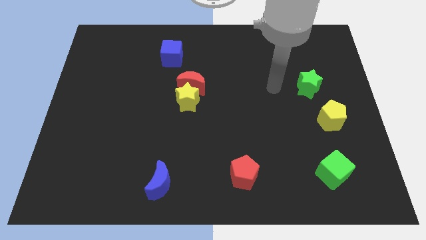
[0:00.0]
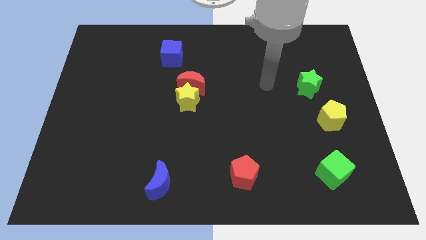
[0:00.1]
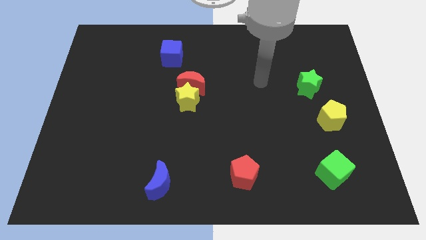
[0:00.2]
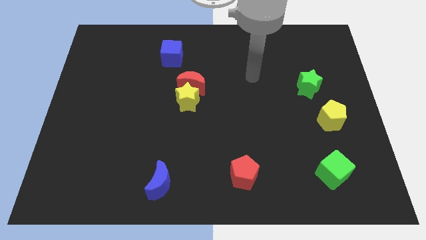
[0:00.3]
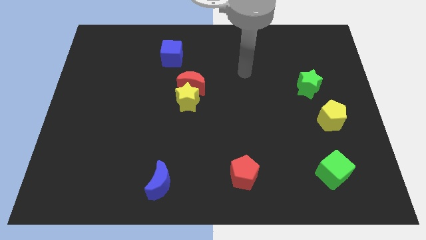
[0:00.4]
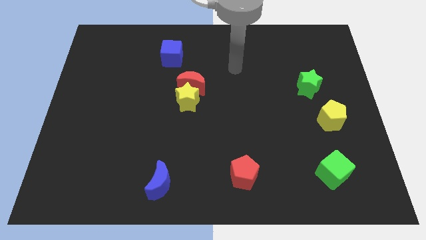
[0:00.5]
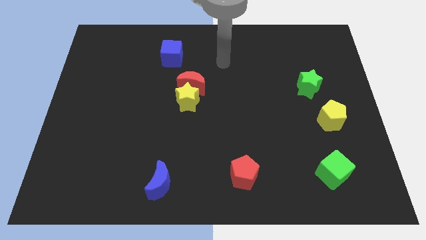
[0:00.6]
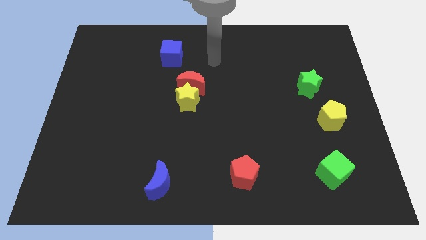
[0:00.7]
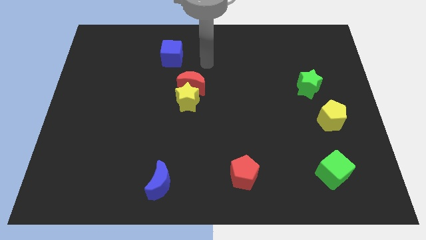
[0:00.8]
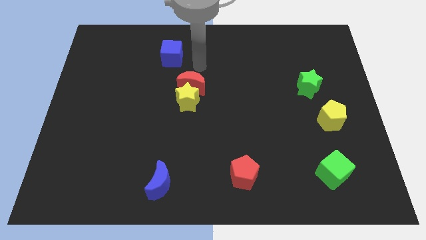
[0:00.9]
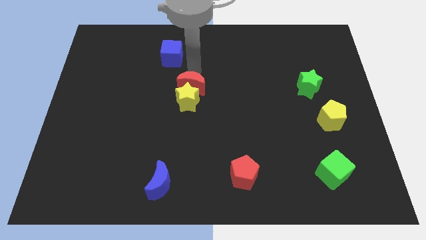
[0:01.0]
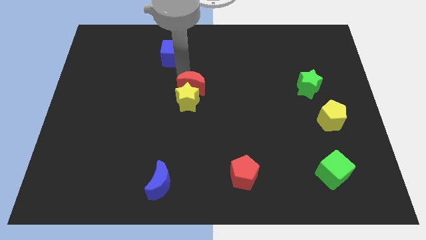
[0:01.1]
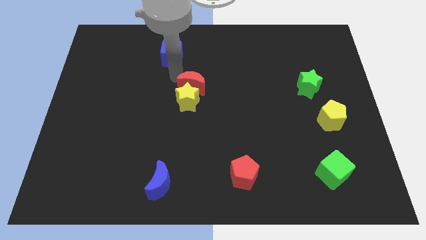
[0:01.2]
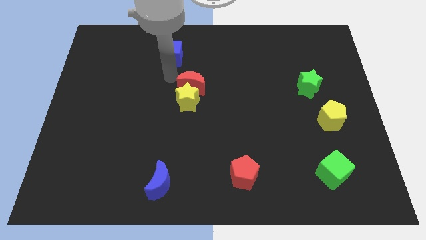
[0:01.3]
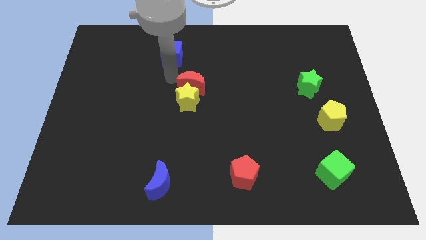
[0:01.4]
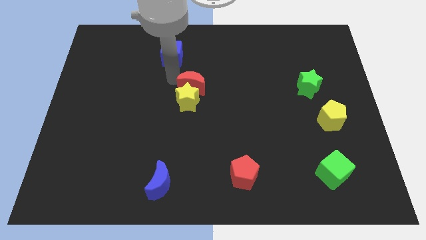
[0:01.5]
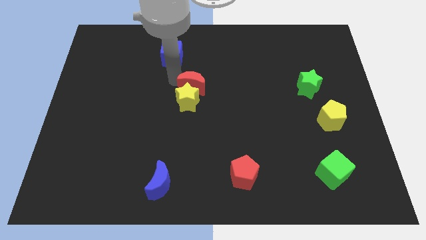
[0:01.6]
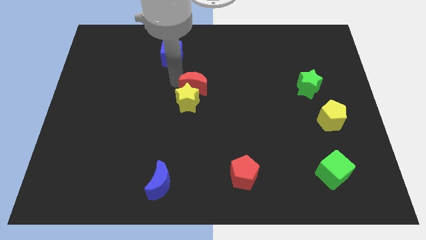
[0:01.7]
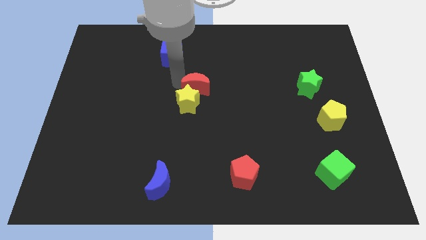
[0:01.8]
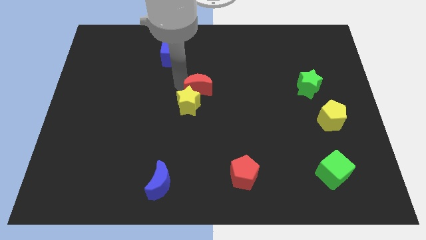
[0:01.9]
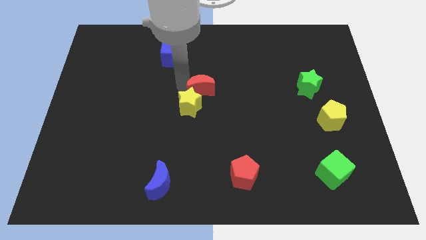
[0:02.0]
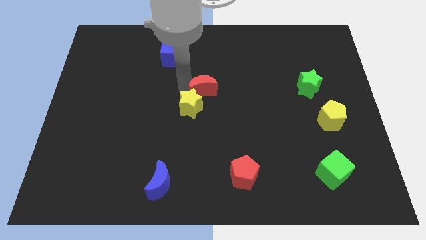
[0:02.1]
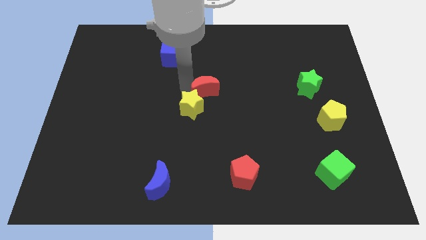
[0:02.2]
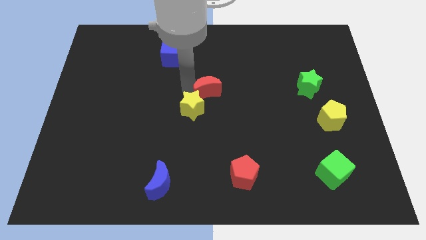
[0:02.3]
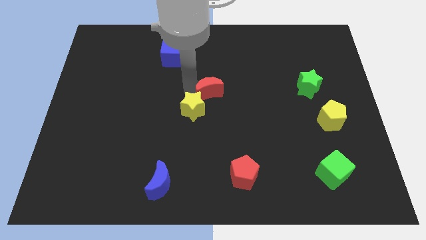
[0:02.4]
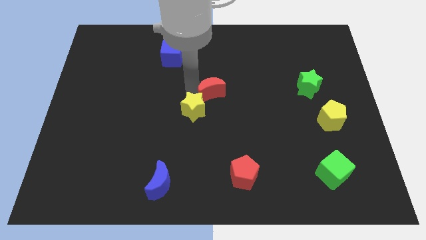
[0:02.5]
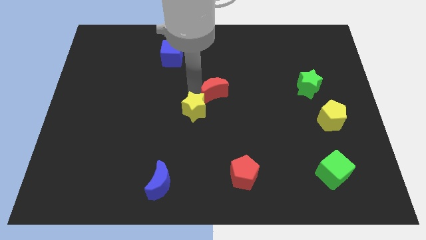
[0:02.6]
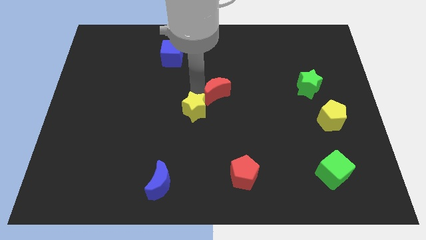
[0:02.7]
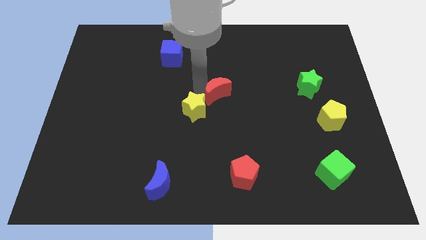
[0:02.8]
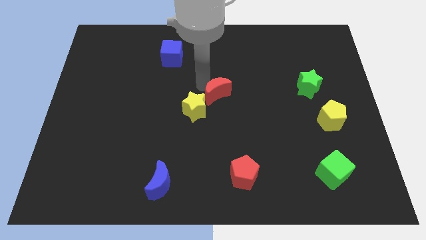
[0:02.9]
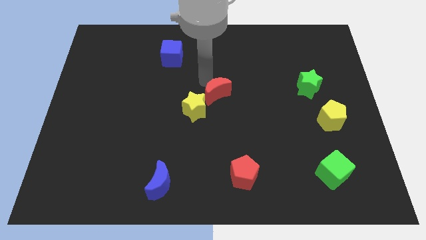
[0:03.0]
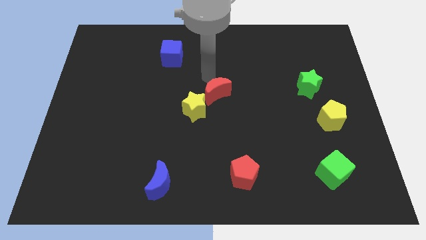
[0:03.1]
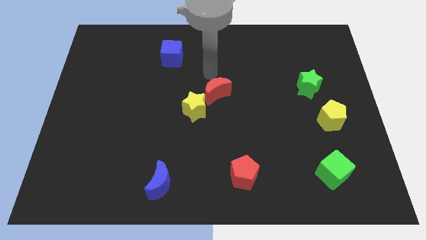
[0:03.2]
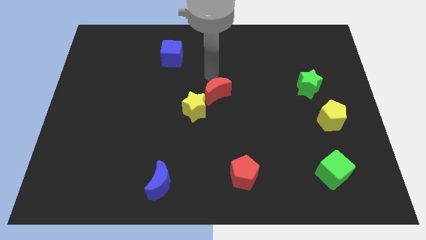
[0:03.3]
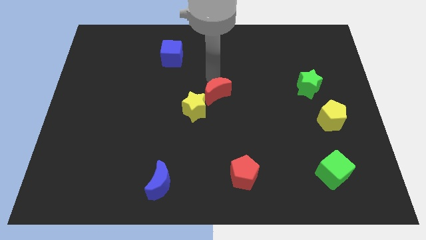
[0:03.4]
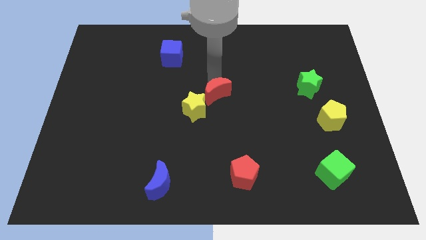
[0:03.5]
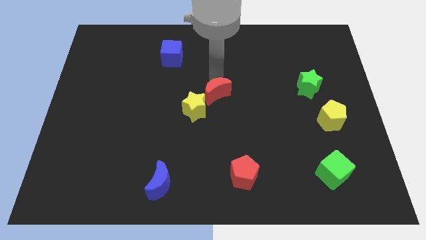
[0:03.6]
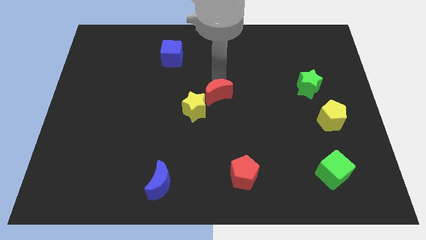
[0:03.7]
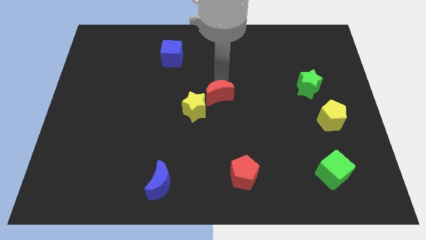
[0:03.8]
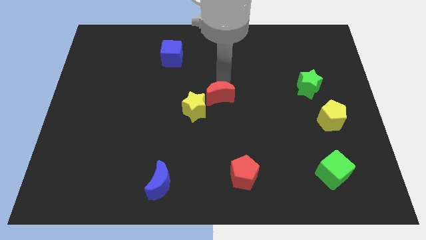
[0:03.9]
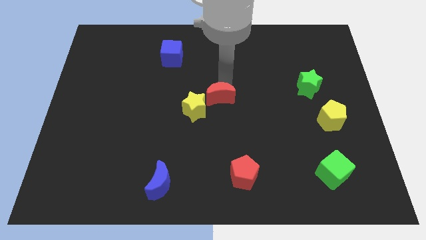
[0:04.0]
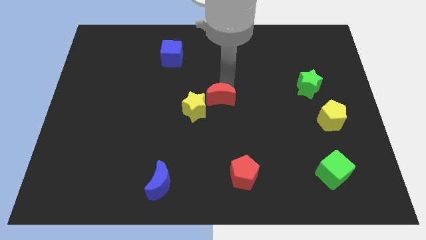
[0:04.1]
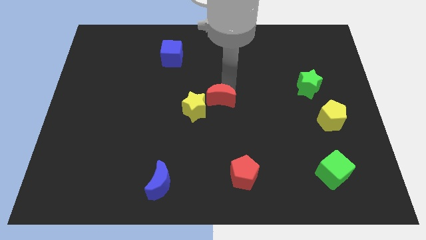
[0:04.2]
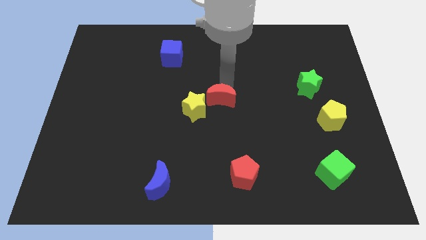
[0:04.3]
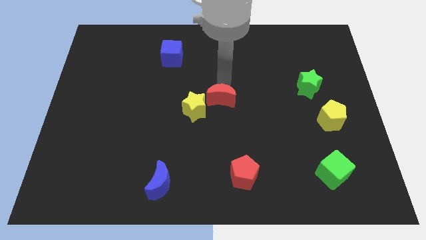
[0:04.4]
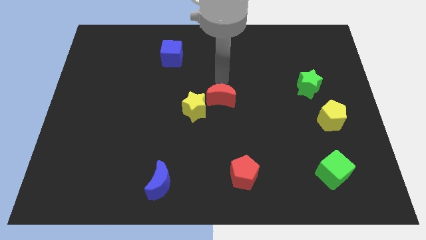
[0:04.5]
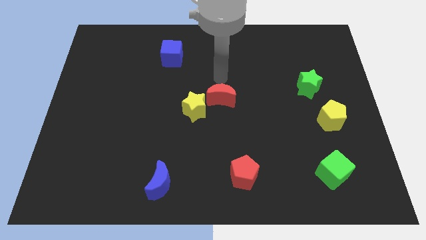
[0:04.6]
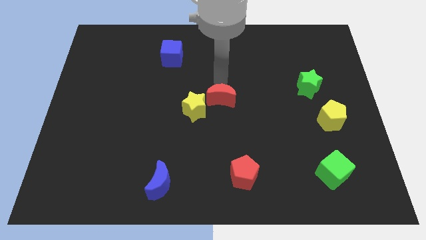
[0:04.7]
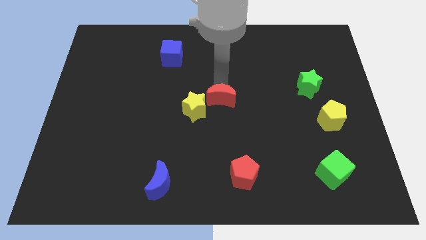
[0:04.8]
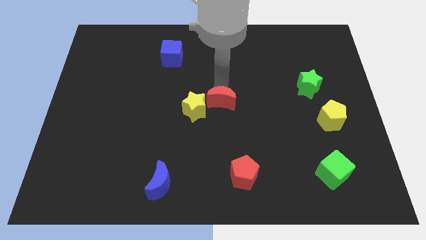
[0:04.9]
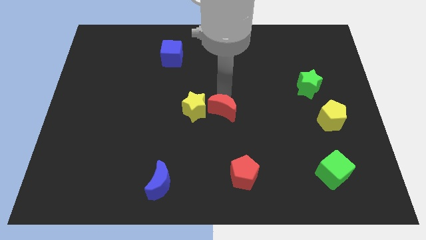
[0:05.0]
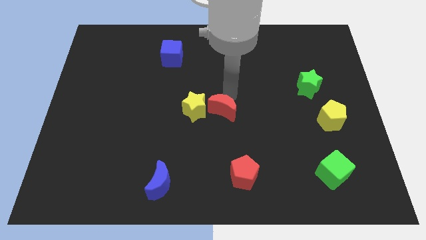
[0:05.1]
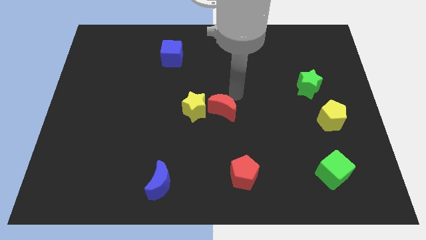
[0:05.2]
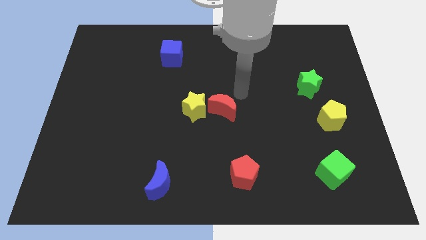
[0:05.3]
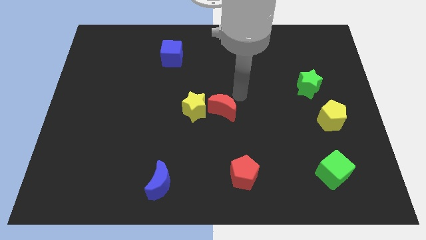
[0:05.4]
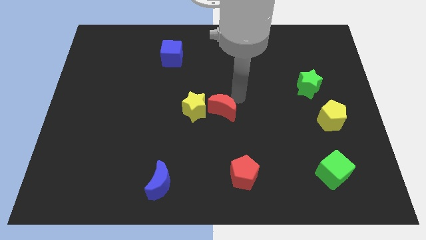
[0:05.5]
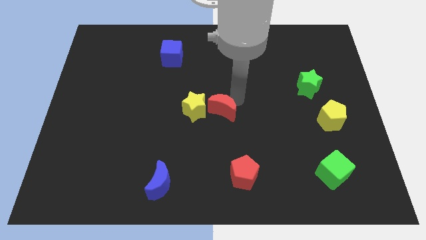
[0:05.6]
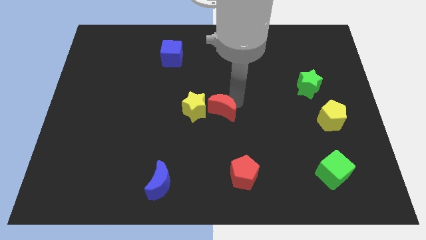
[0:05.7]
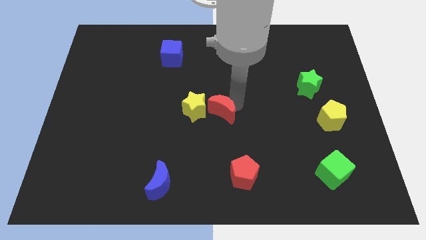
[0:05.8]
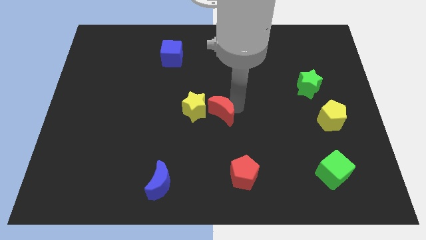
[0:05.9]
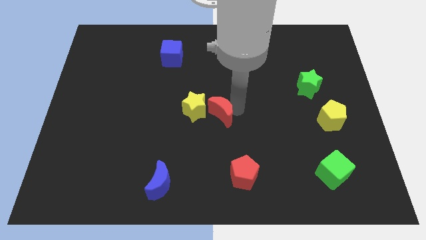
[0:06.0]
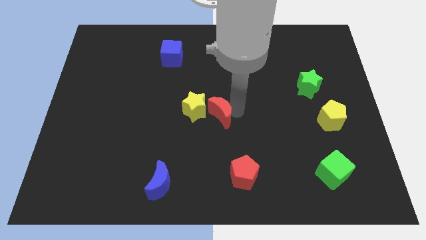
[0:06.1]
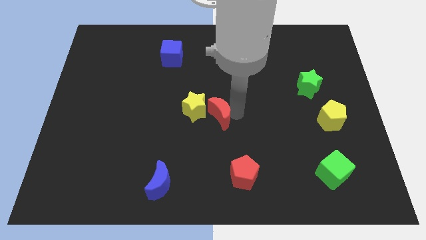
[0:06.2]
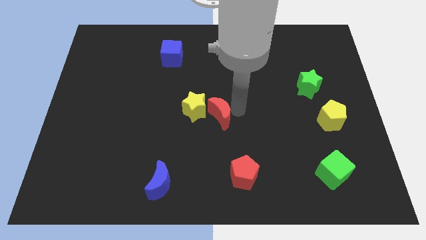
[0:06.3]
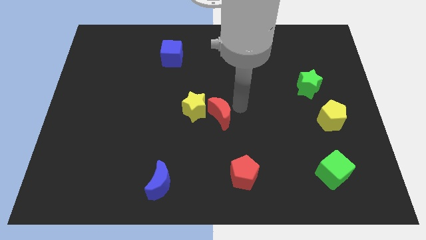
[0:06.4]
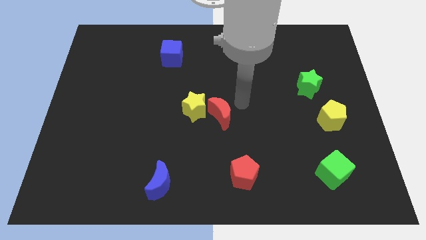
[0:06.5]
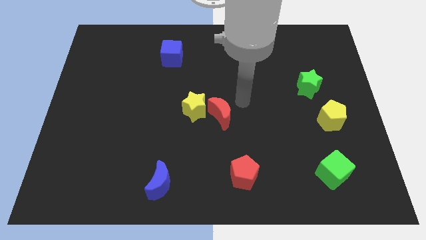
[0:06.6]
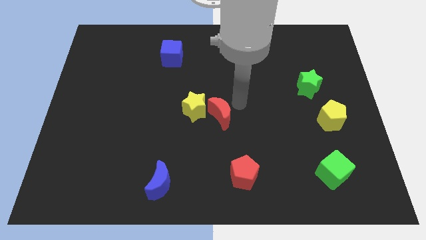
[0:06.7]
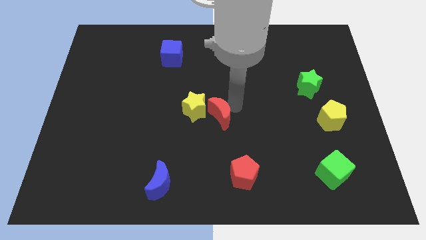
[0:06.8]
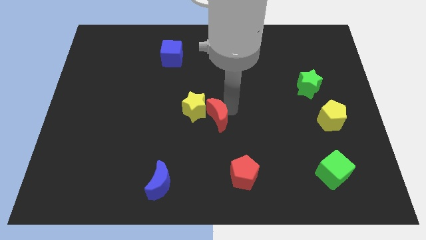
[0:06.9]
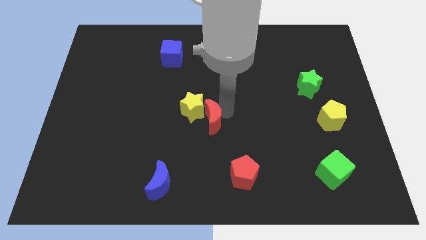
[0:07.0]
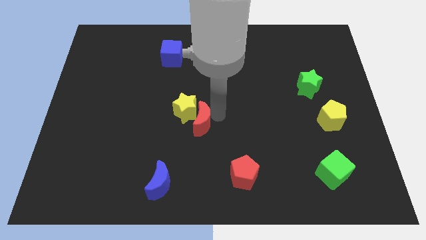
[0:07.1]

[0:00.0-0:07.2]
put the red moon below the yellow star
